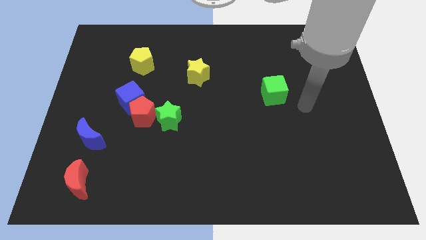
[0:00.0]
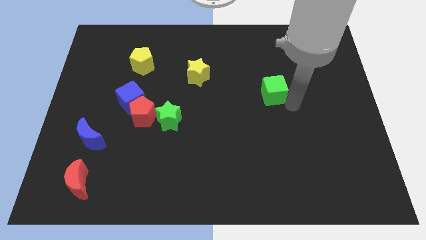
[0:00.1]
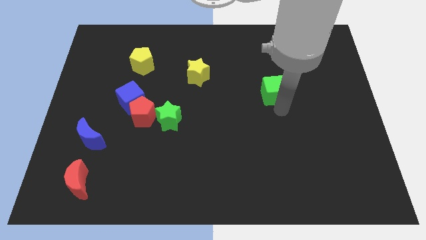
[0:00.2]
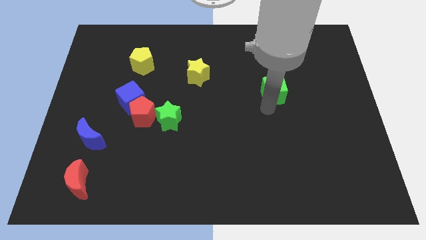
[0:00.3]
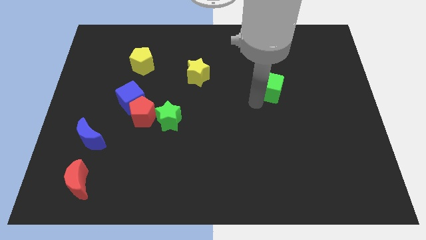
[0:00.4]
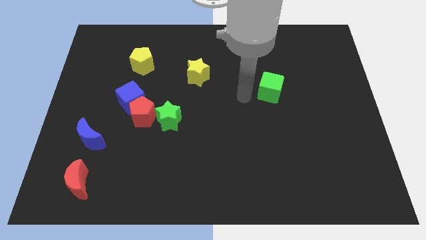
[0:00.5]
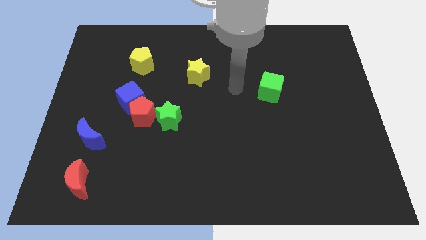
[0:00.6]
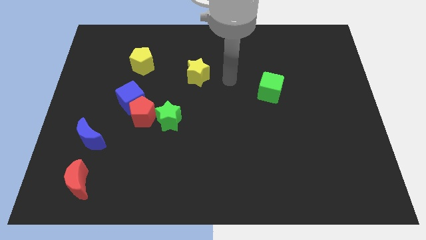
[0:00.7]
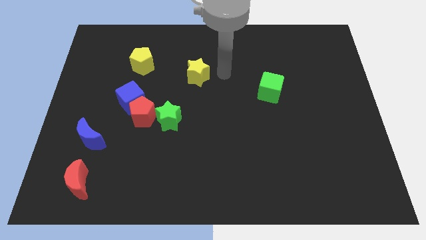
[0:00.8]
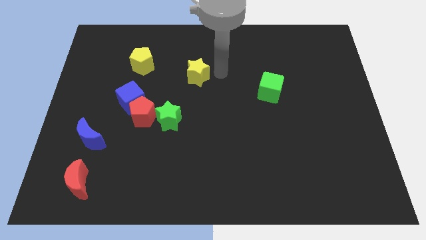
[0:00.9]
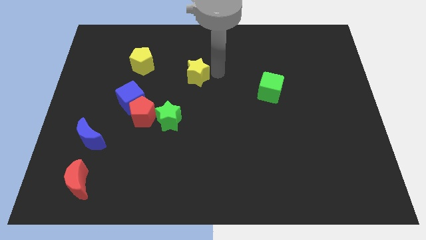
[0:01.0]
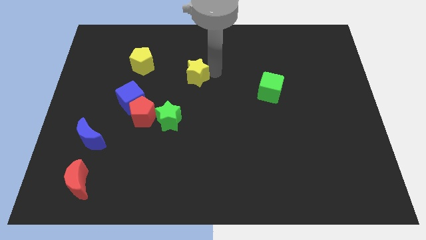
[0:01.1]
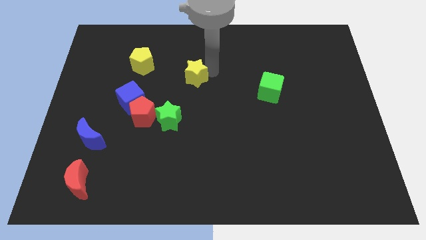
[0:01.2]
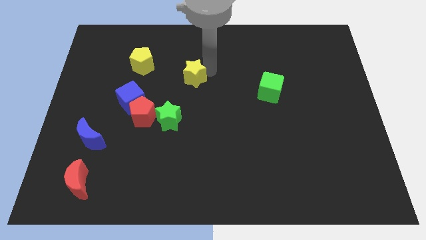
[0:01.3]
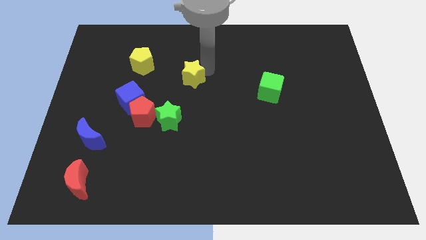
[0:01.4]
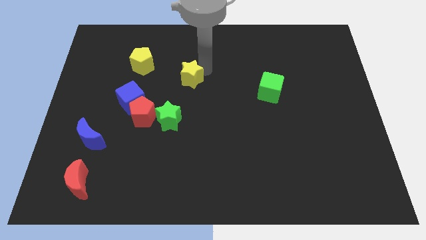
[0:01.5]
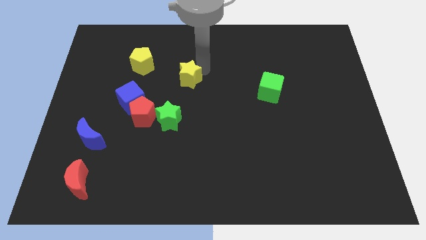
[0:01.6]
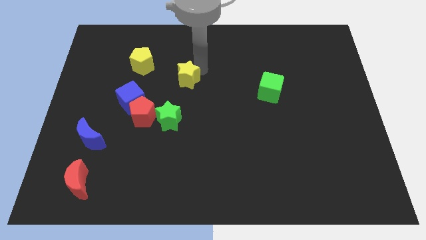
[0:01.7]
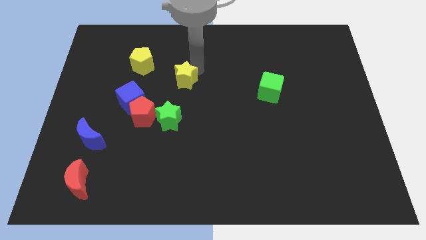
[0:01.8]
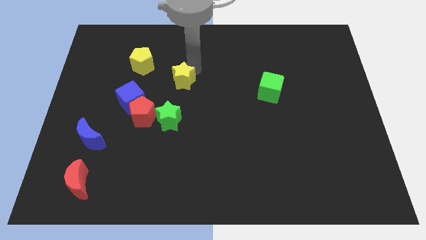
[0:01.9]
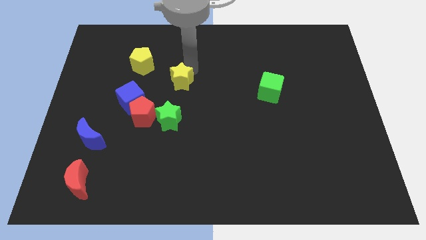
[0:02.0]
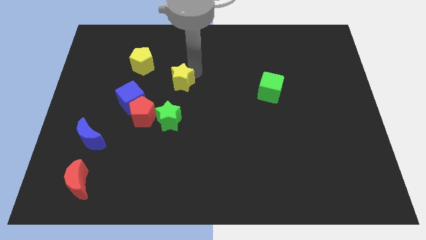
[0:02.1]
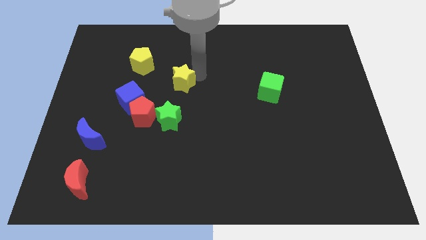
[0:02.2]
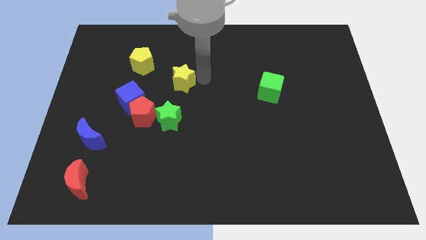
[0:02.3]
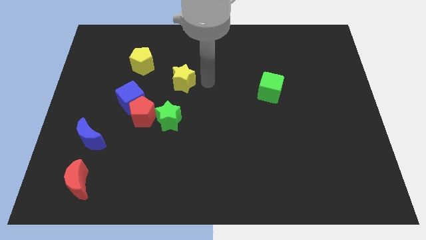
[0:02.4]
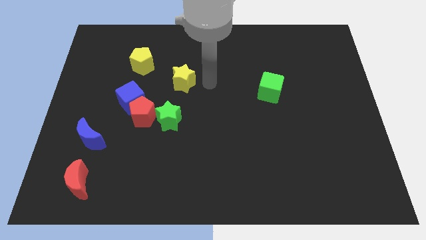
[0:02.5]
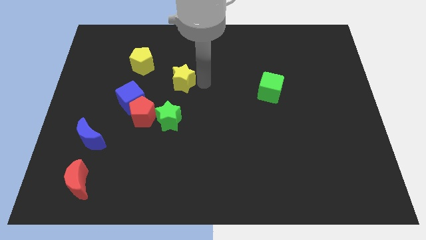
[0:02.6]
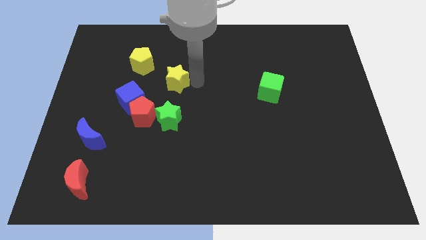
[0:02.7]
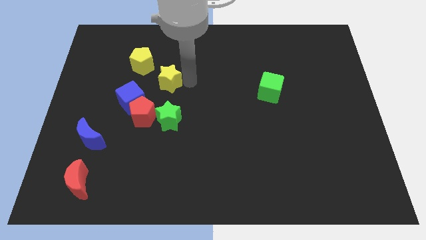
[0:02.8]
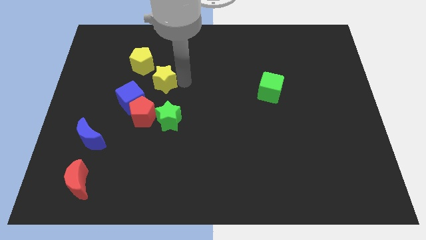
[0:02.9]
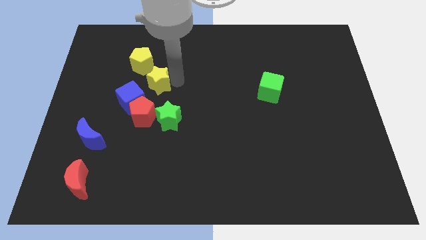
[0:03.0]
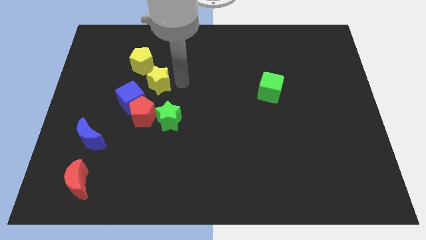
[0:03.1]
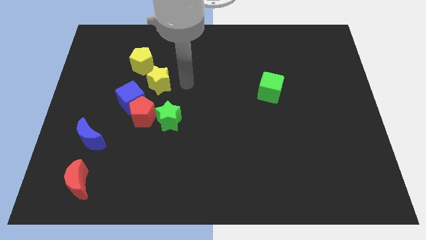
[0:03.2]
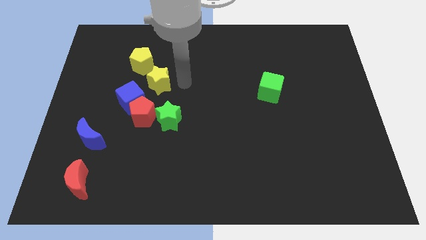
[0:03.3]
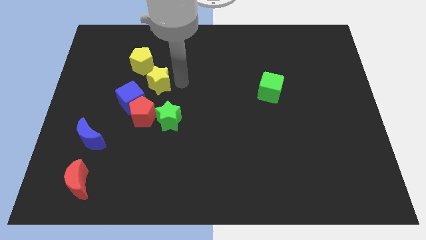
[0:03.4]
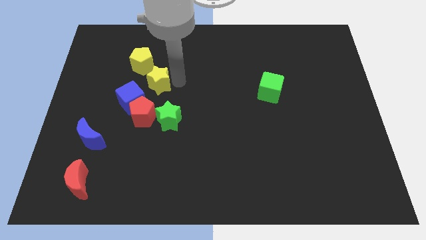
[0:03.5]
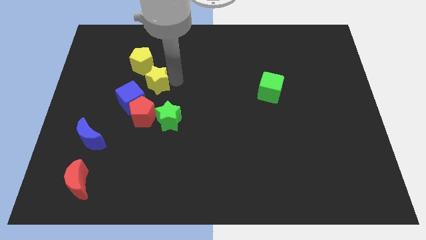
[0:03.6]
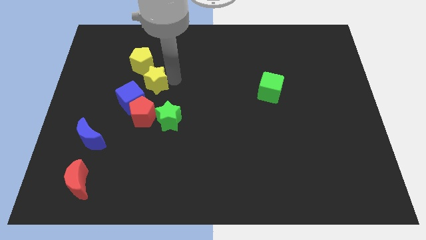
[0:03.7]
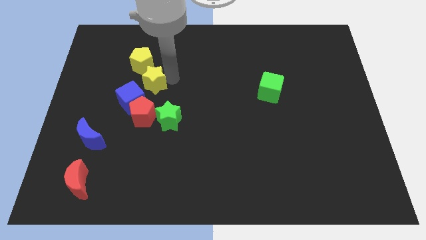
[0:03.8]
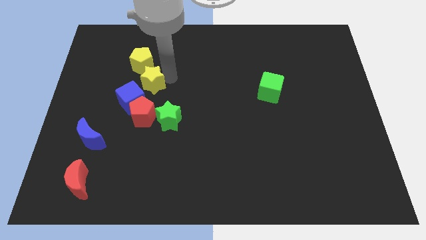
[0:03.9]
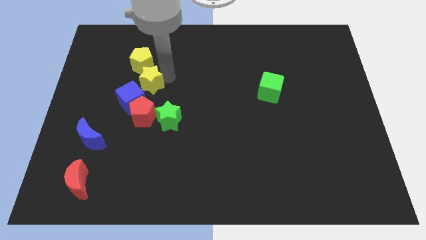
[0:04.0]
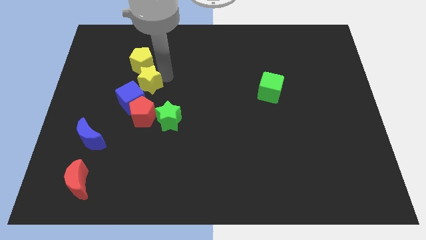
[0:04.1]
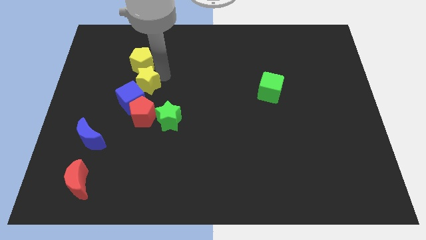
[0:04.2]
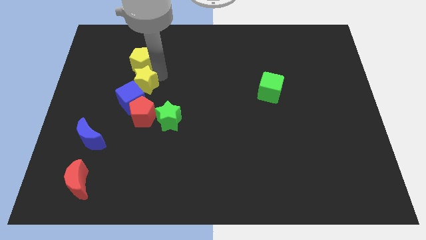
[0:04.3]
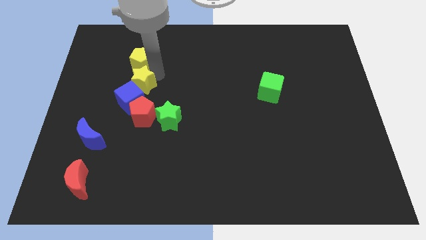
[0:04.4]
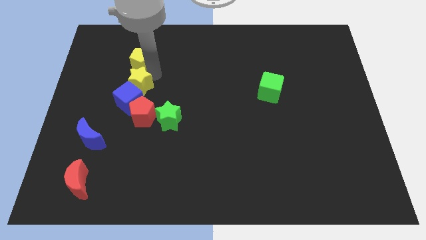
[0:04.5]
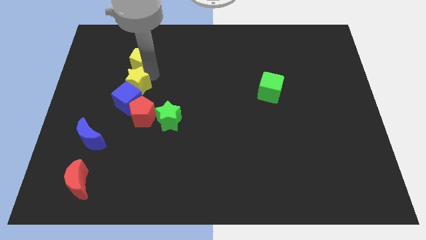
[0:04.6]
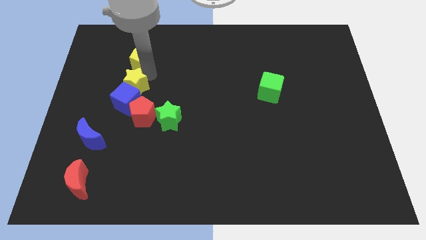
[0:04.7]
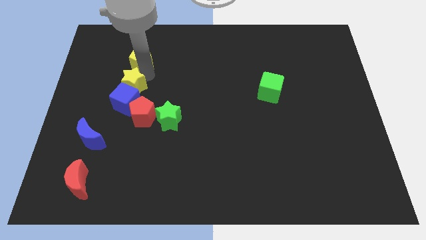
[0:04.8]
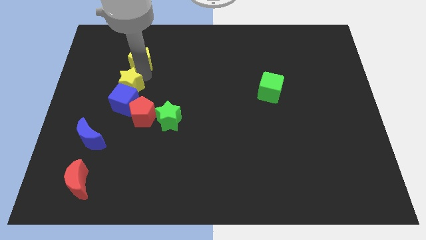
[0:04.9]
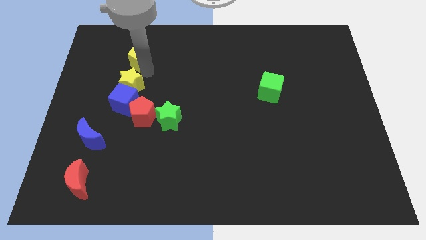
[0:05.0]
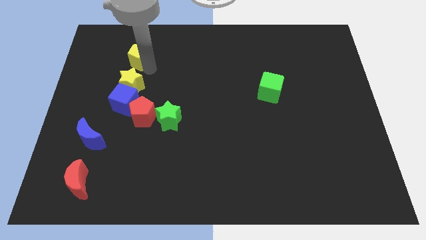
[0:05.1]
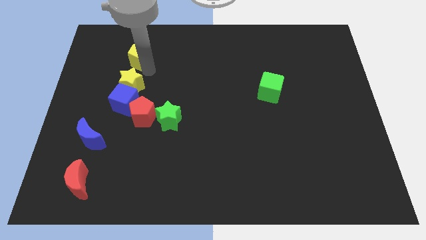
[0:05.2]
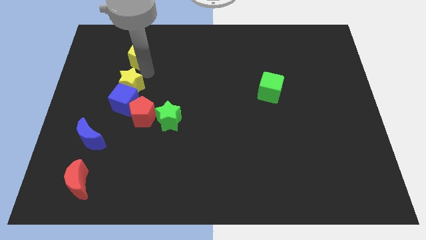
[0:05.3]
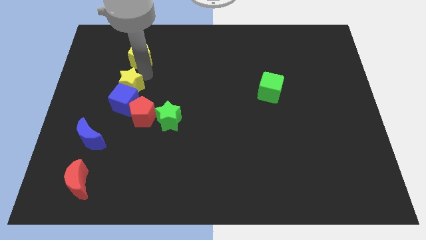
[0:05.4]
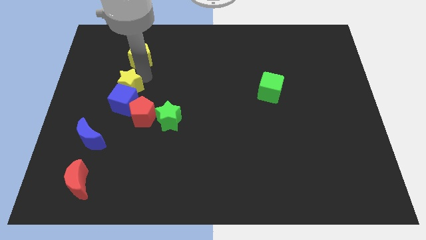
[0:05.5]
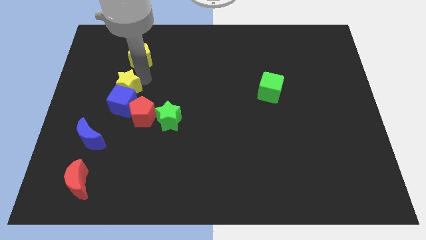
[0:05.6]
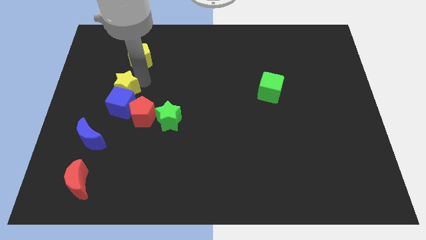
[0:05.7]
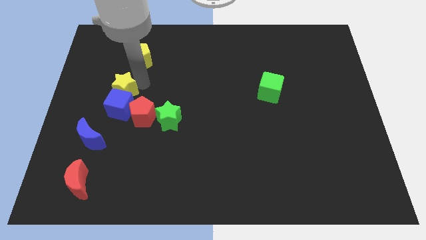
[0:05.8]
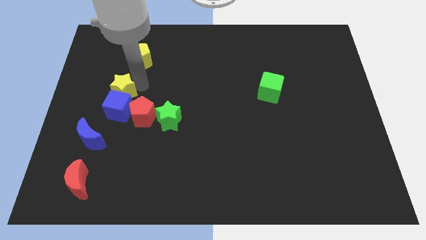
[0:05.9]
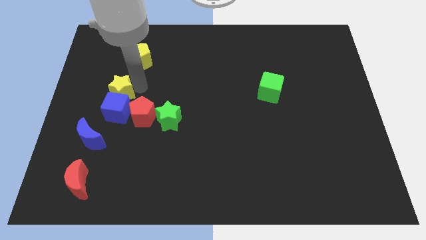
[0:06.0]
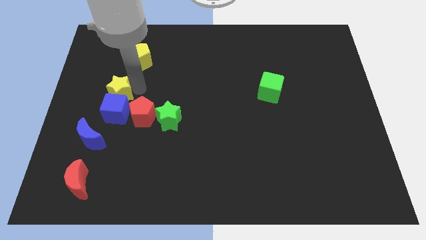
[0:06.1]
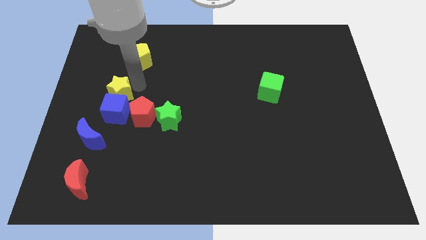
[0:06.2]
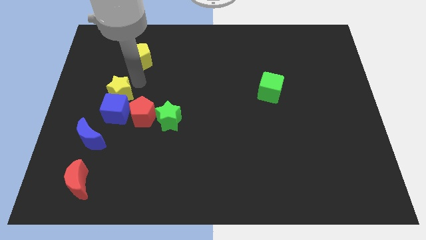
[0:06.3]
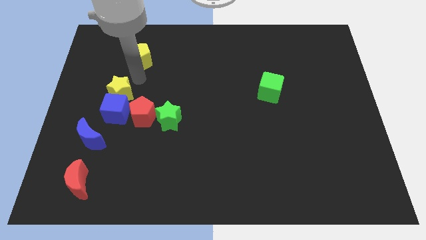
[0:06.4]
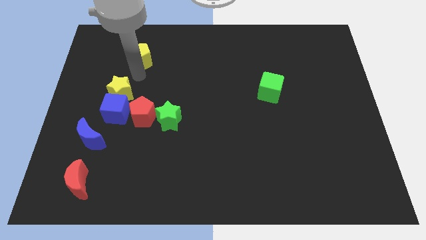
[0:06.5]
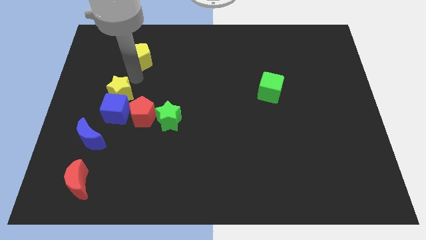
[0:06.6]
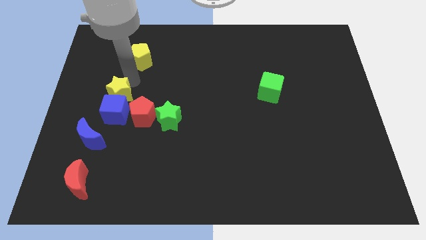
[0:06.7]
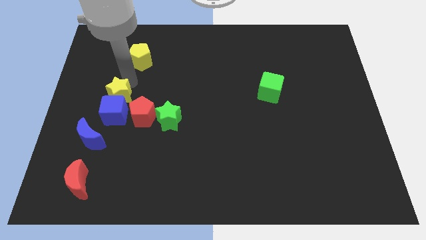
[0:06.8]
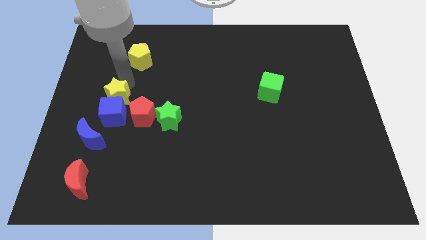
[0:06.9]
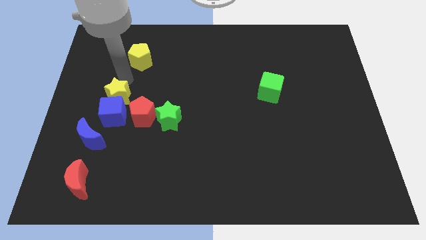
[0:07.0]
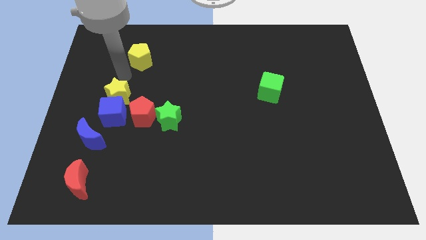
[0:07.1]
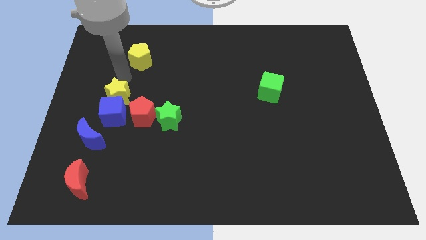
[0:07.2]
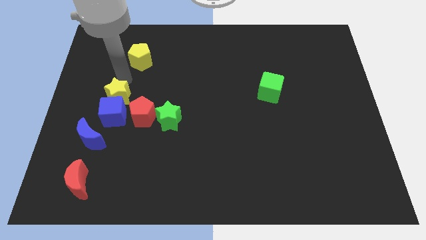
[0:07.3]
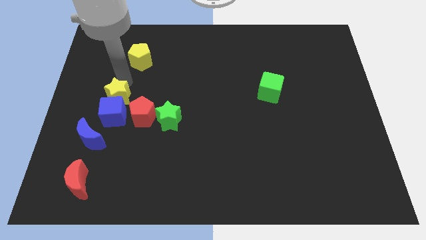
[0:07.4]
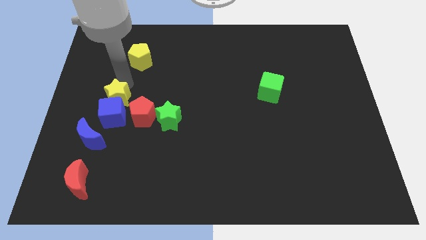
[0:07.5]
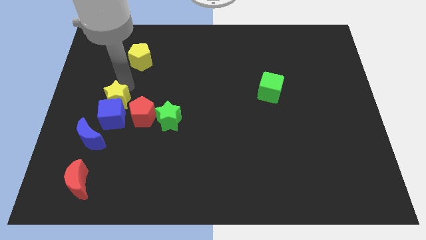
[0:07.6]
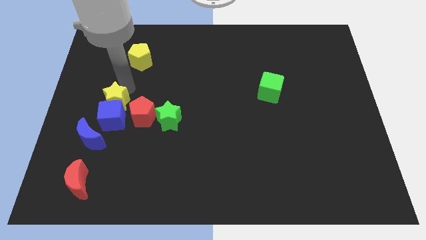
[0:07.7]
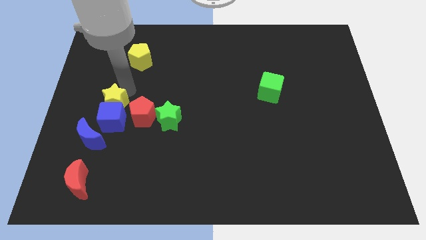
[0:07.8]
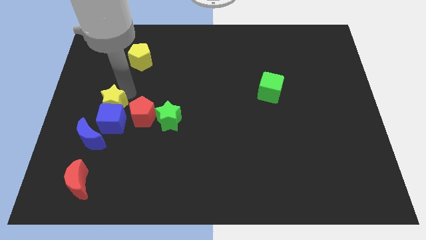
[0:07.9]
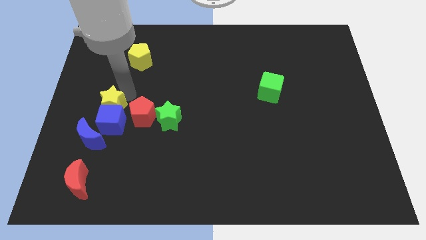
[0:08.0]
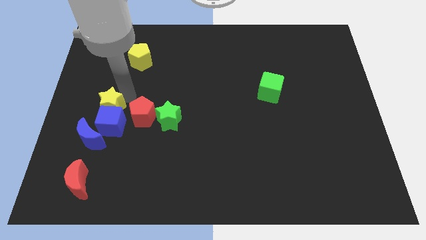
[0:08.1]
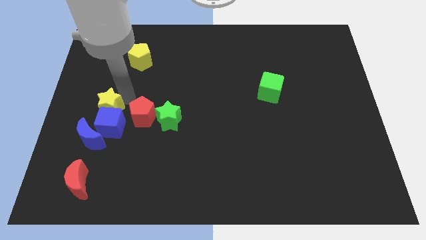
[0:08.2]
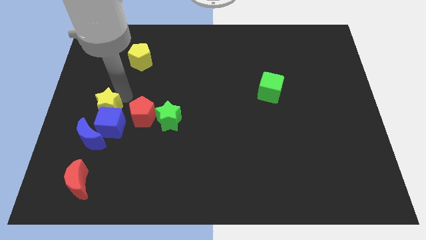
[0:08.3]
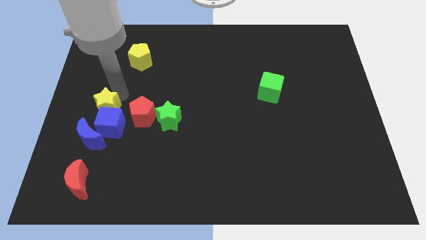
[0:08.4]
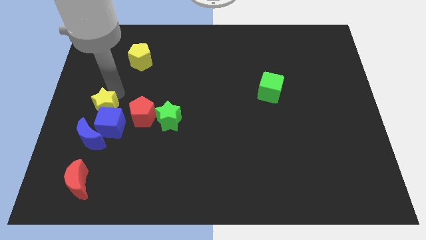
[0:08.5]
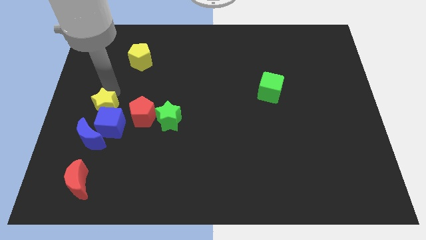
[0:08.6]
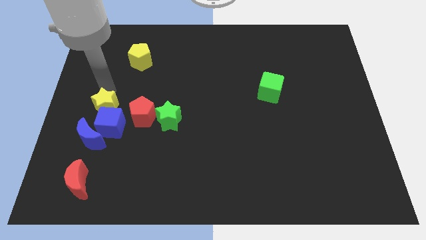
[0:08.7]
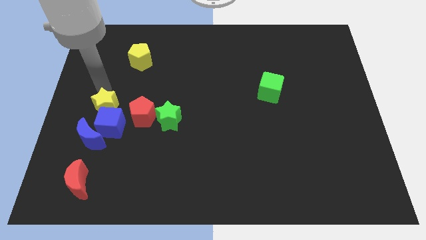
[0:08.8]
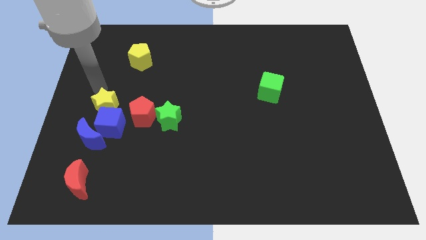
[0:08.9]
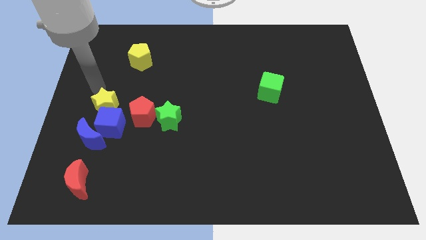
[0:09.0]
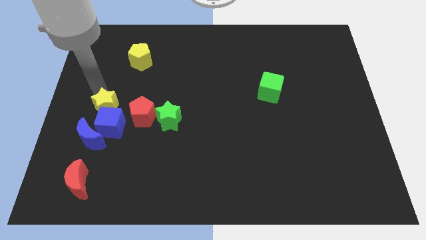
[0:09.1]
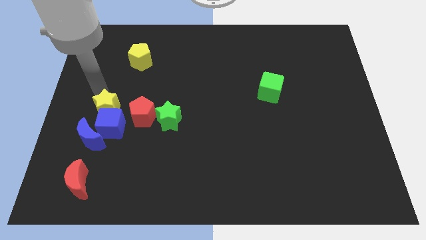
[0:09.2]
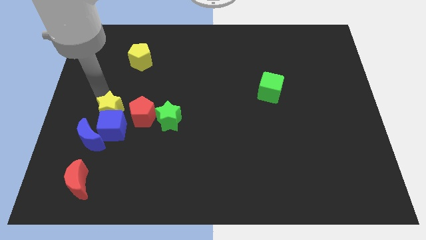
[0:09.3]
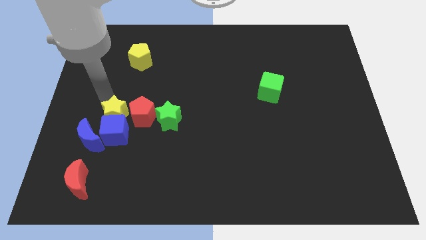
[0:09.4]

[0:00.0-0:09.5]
push the yellow star to the bottom left side of the red pentagon
